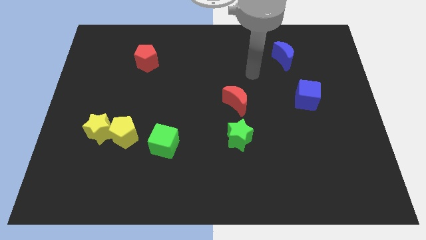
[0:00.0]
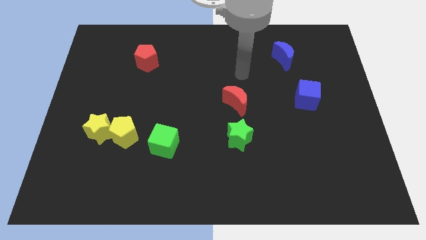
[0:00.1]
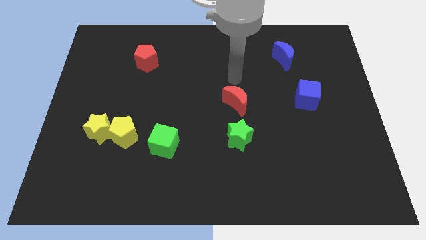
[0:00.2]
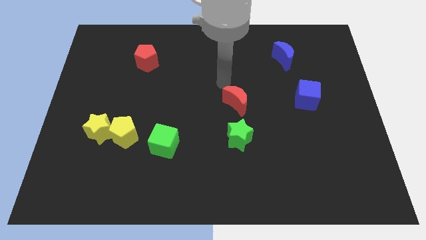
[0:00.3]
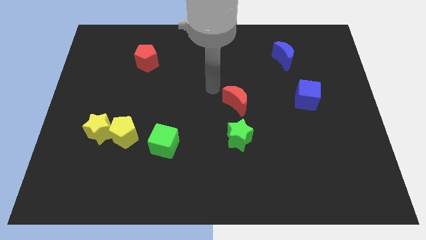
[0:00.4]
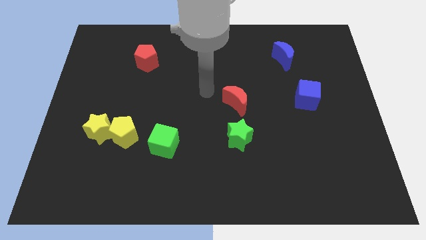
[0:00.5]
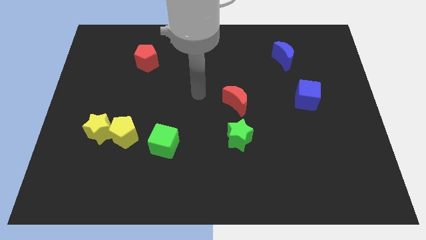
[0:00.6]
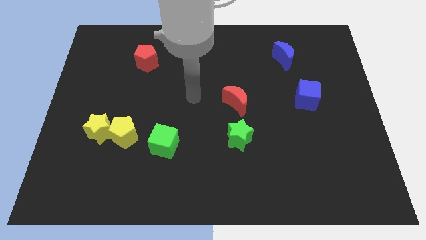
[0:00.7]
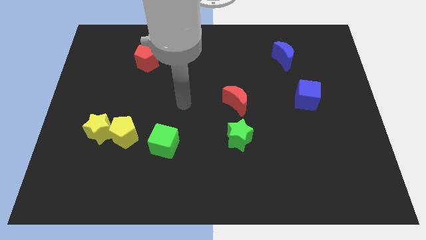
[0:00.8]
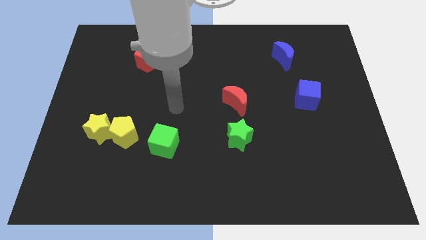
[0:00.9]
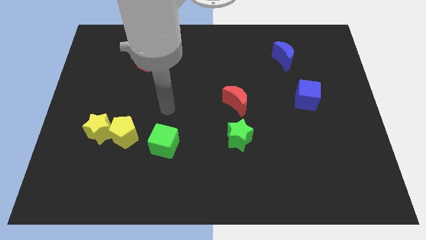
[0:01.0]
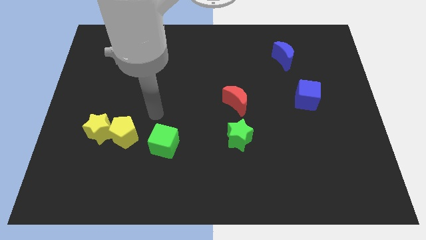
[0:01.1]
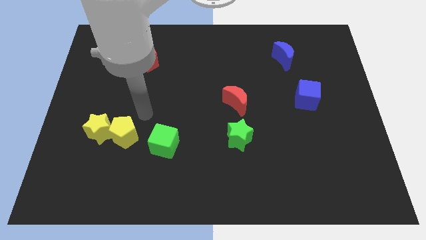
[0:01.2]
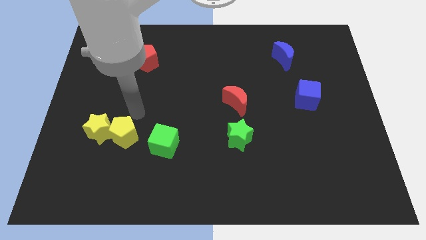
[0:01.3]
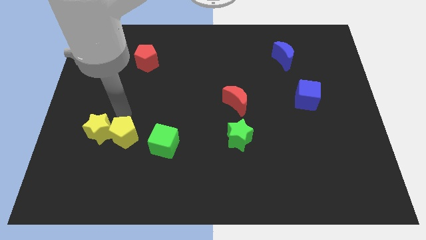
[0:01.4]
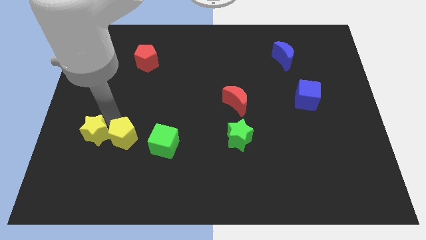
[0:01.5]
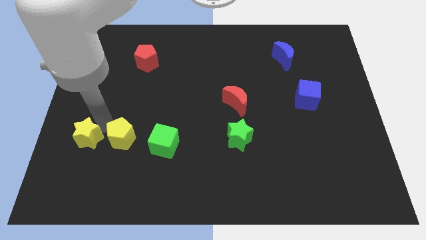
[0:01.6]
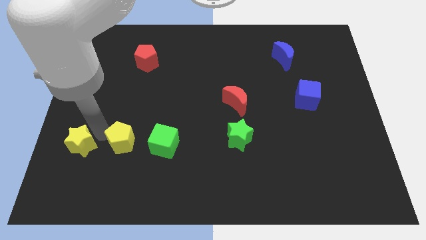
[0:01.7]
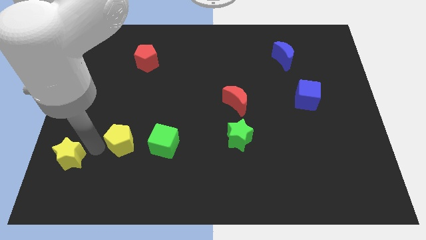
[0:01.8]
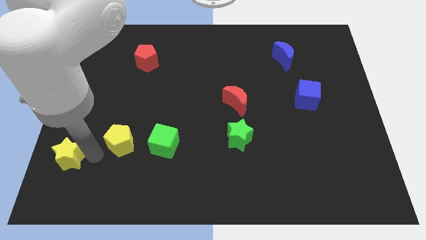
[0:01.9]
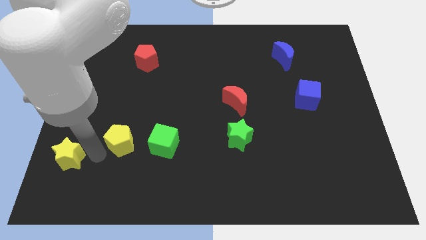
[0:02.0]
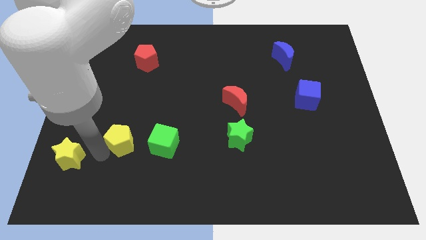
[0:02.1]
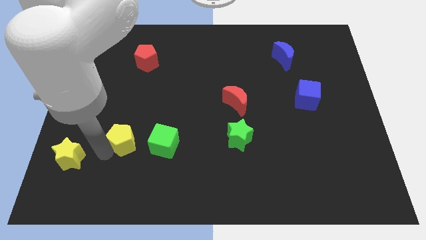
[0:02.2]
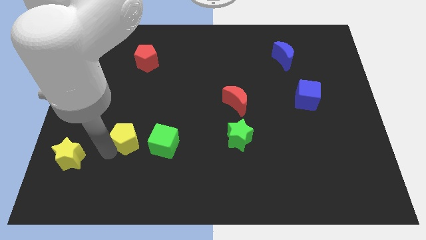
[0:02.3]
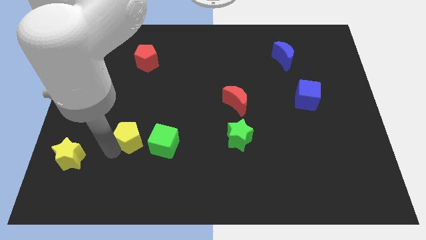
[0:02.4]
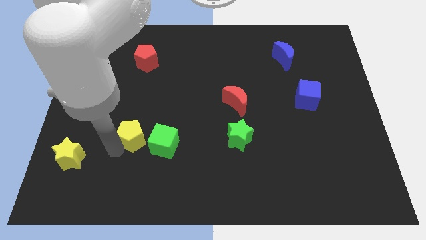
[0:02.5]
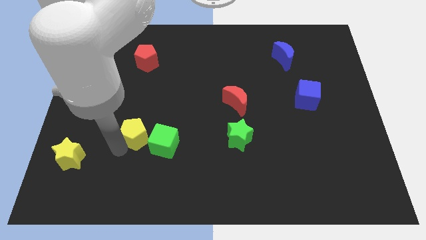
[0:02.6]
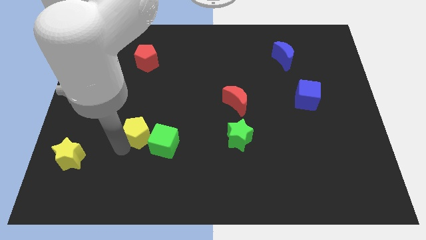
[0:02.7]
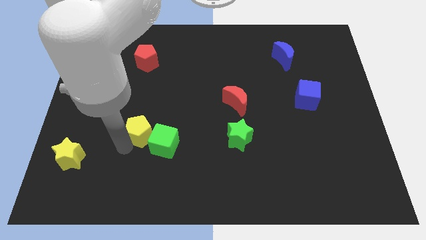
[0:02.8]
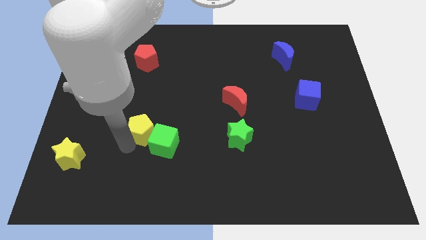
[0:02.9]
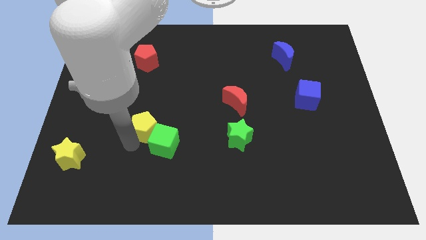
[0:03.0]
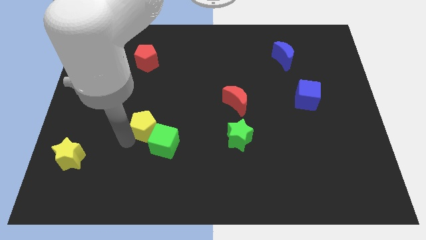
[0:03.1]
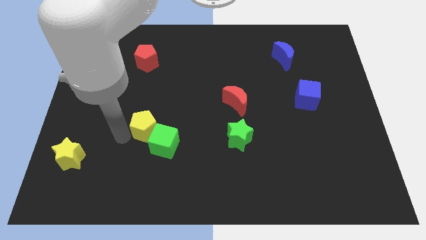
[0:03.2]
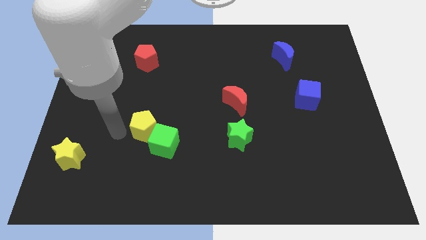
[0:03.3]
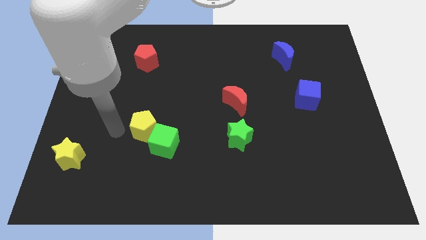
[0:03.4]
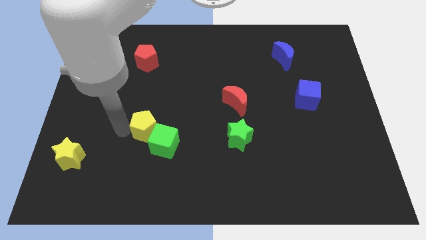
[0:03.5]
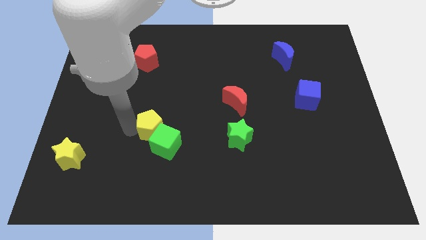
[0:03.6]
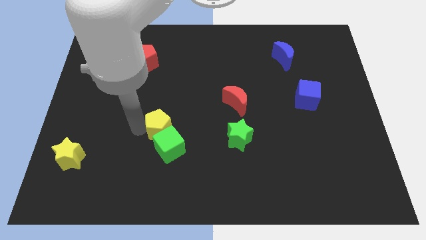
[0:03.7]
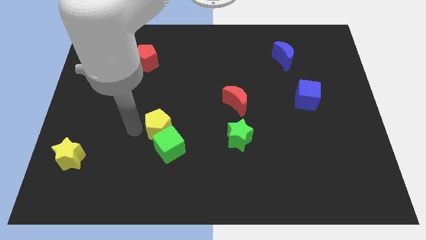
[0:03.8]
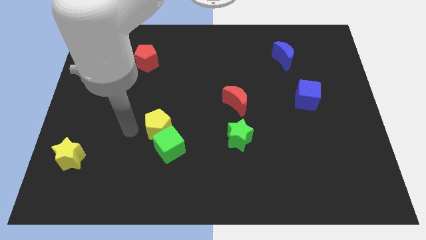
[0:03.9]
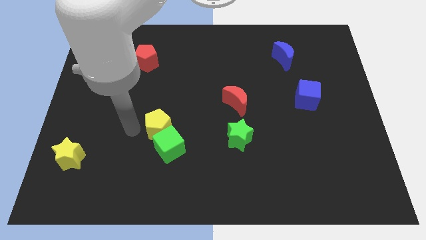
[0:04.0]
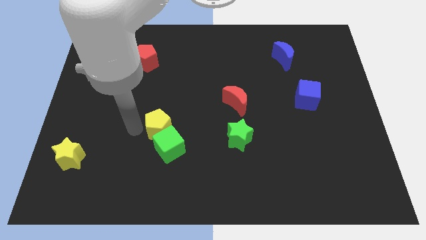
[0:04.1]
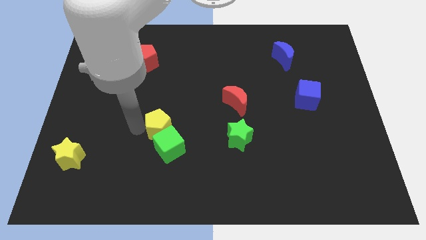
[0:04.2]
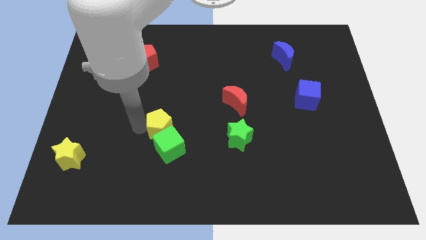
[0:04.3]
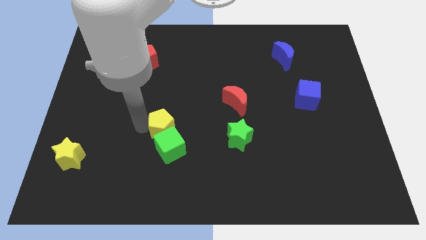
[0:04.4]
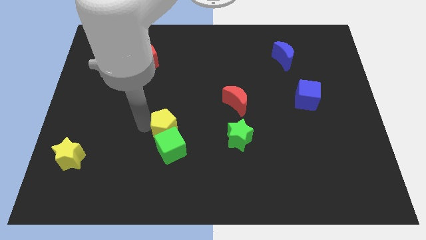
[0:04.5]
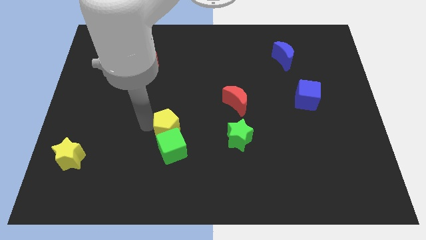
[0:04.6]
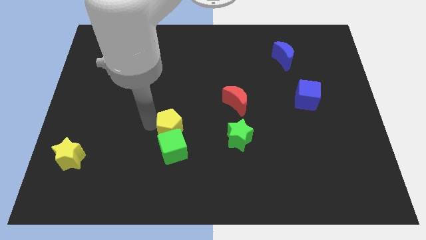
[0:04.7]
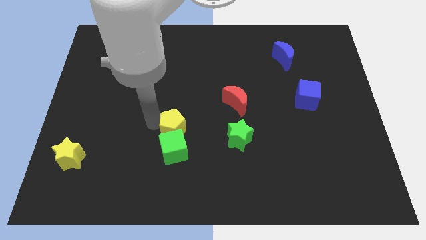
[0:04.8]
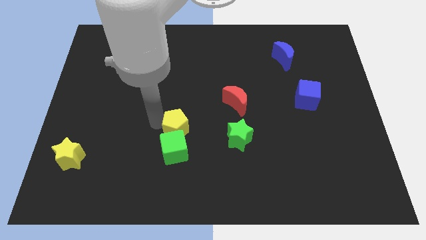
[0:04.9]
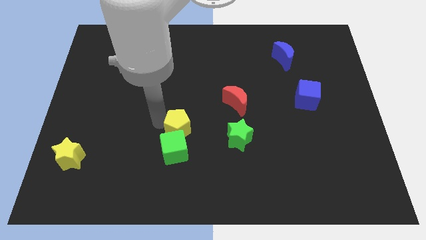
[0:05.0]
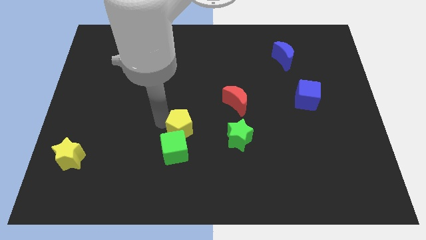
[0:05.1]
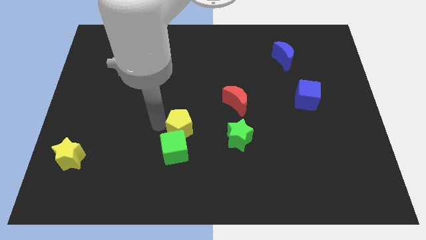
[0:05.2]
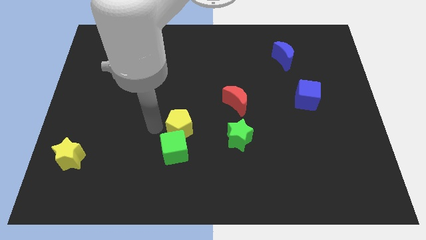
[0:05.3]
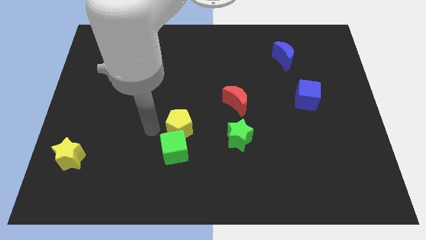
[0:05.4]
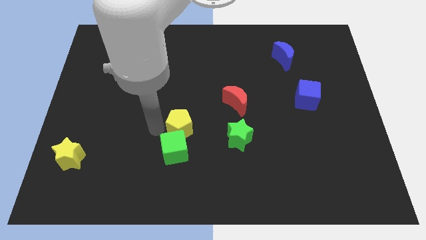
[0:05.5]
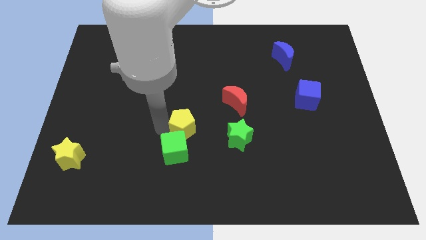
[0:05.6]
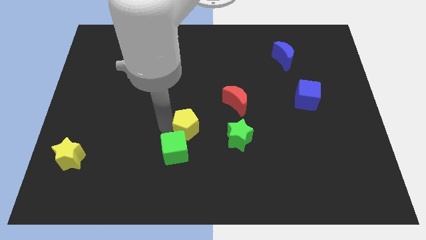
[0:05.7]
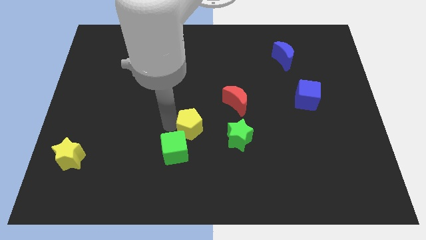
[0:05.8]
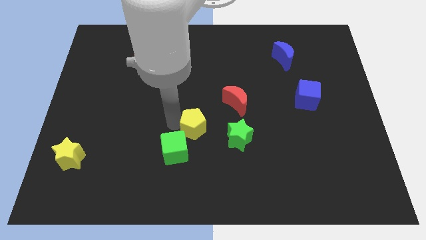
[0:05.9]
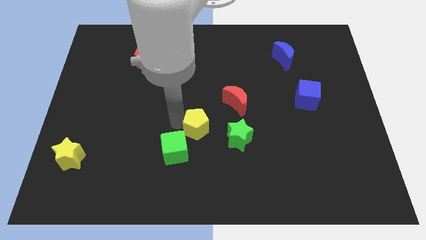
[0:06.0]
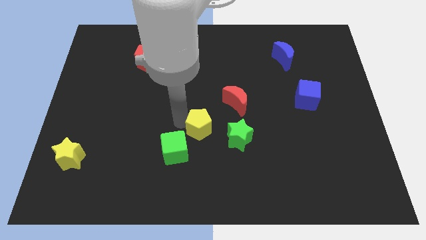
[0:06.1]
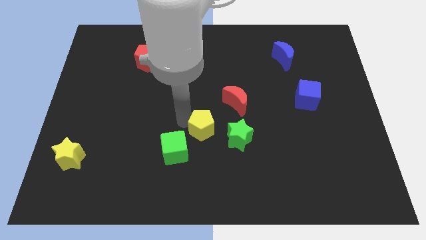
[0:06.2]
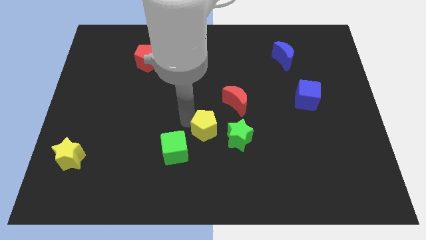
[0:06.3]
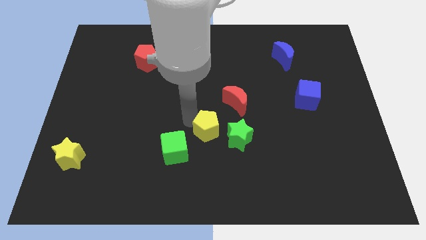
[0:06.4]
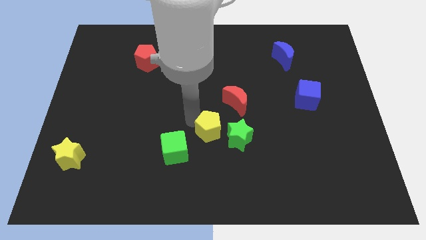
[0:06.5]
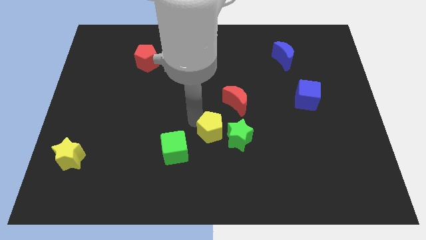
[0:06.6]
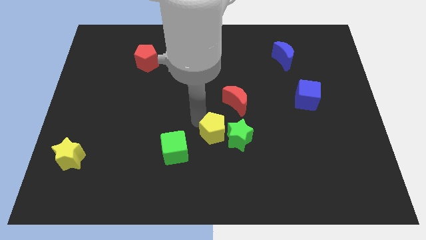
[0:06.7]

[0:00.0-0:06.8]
push the yellow pentagon close to the green star
